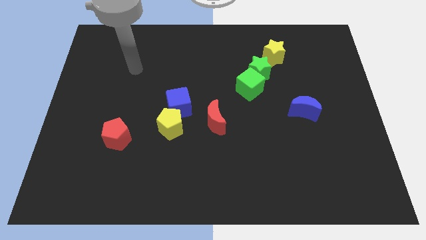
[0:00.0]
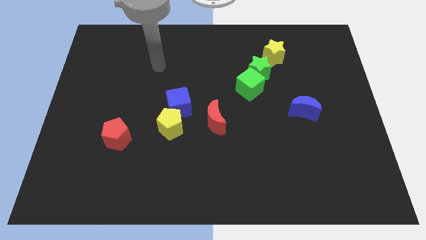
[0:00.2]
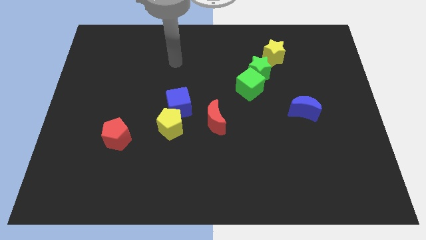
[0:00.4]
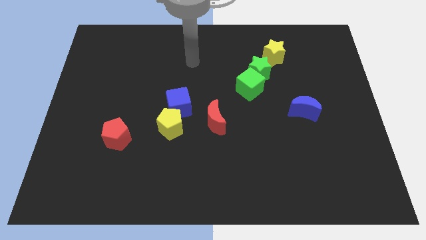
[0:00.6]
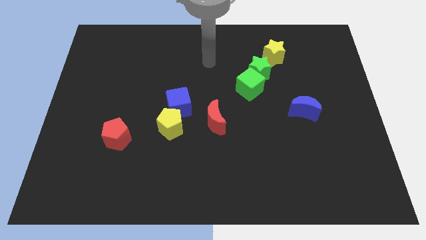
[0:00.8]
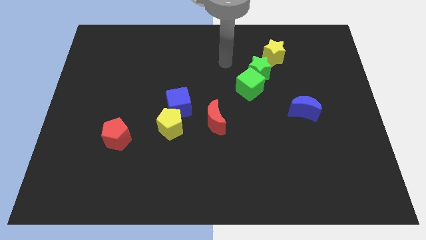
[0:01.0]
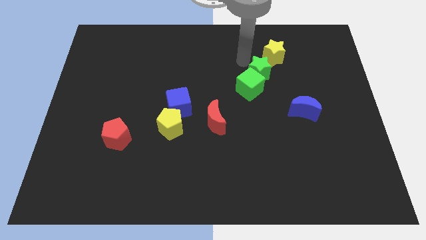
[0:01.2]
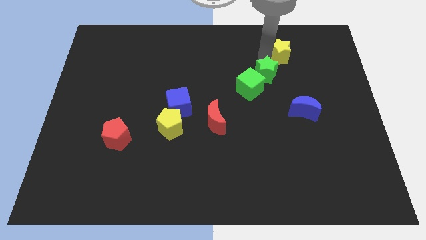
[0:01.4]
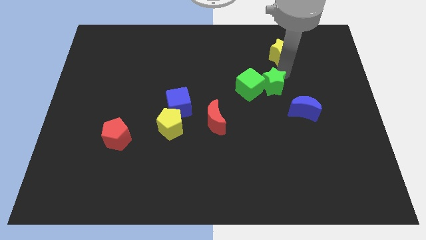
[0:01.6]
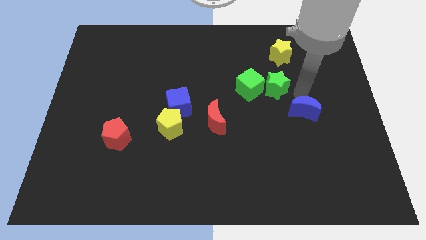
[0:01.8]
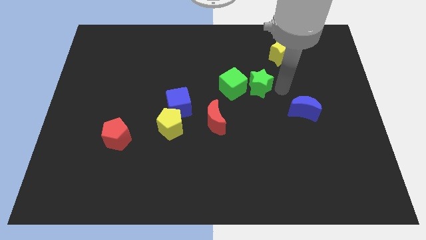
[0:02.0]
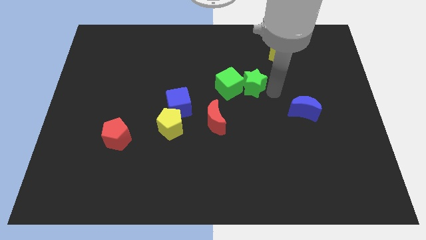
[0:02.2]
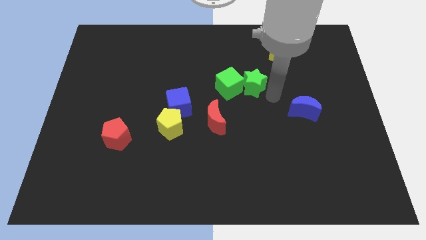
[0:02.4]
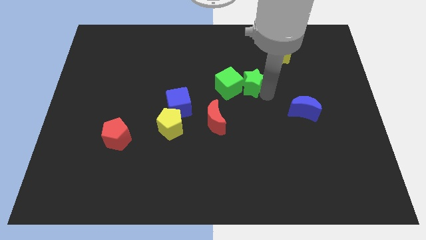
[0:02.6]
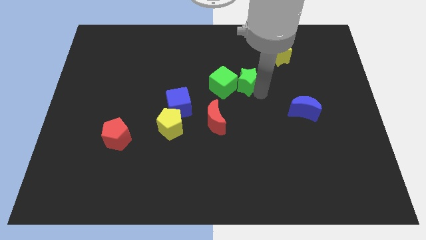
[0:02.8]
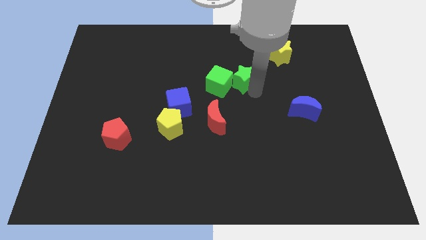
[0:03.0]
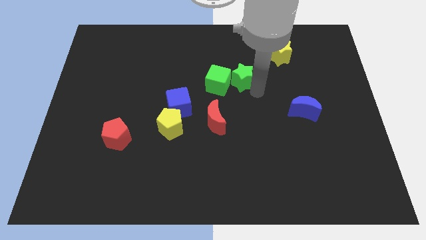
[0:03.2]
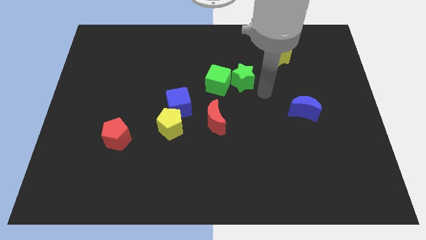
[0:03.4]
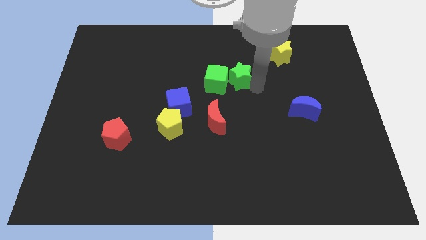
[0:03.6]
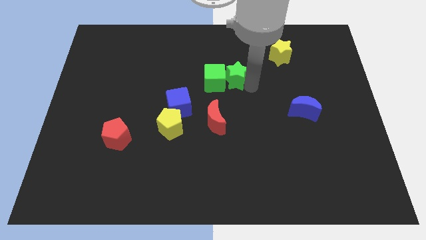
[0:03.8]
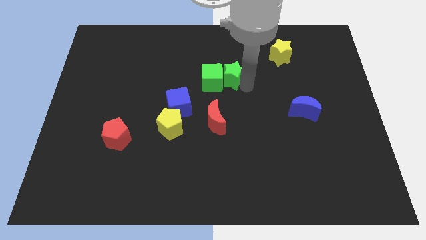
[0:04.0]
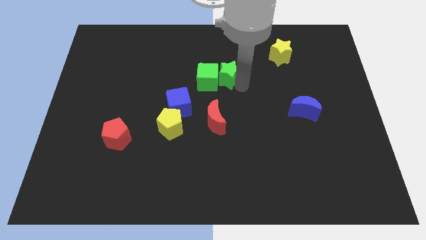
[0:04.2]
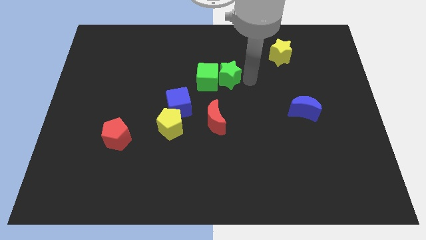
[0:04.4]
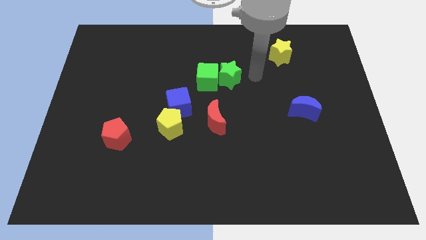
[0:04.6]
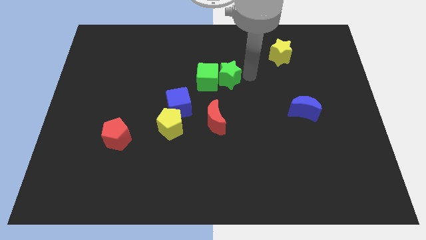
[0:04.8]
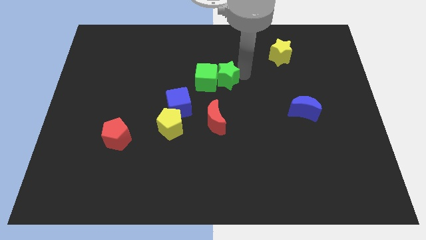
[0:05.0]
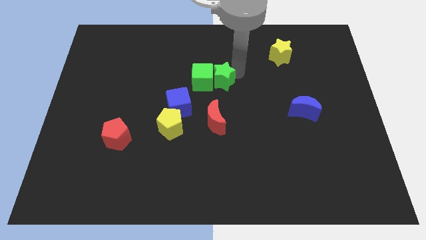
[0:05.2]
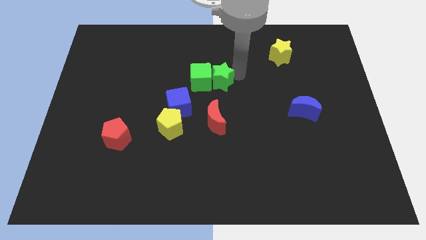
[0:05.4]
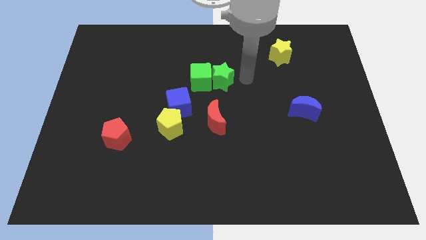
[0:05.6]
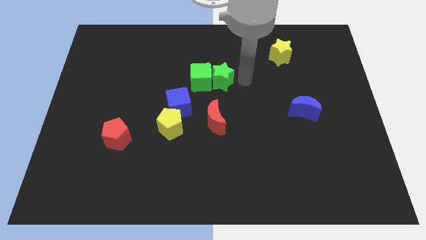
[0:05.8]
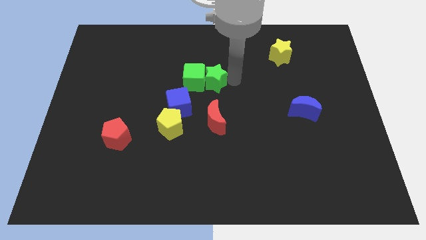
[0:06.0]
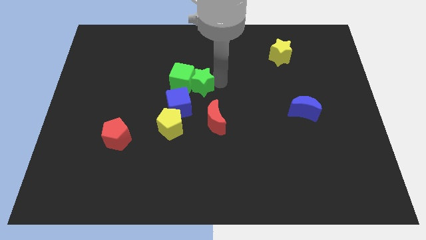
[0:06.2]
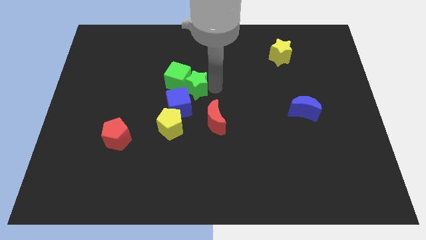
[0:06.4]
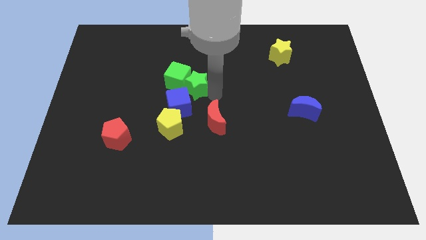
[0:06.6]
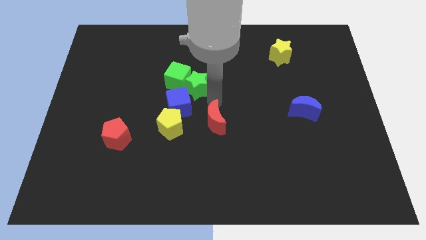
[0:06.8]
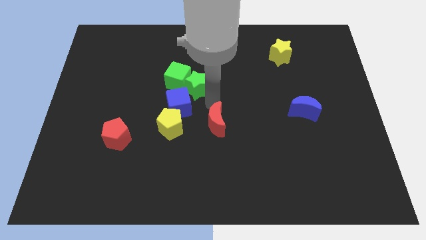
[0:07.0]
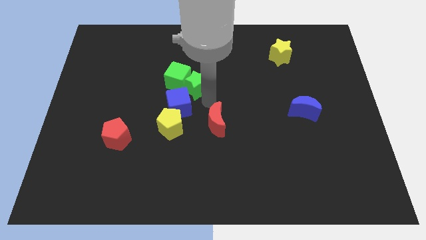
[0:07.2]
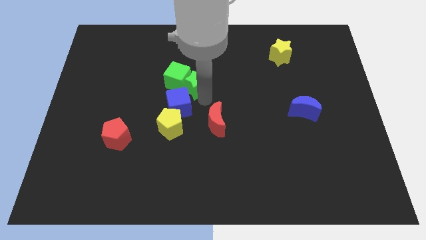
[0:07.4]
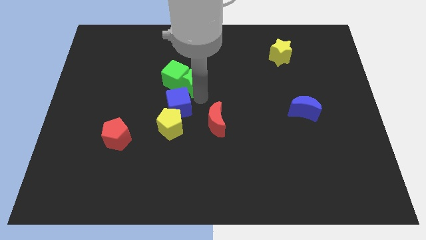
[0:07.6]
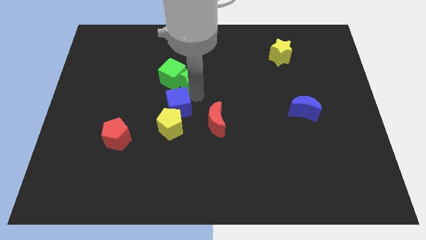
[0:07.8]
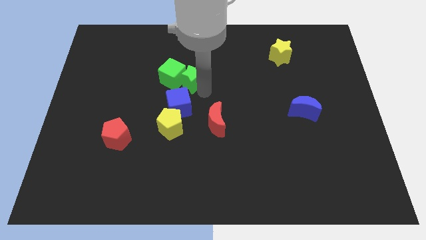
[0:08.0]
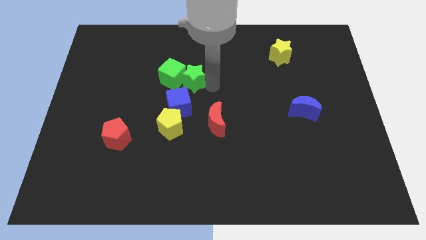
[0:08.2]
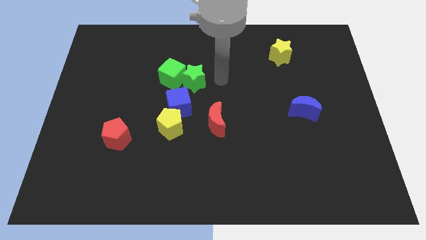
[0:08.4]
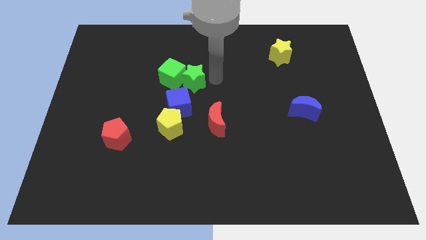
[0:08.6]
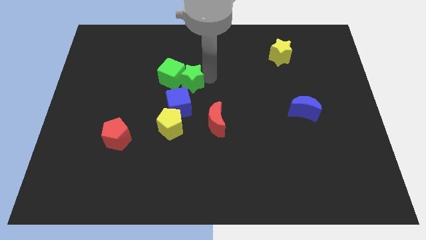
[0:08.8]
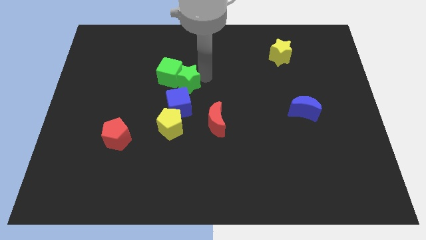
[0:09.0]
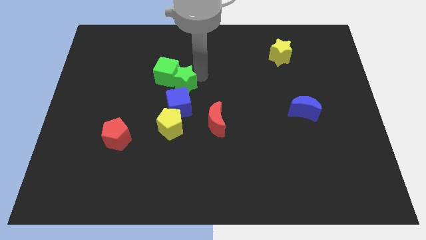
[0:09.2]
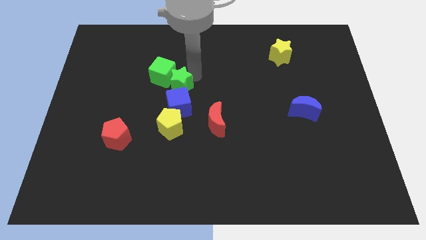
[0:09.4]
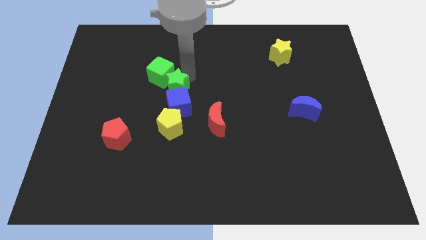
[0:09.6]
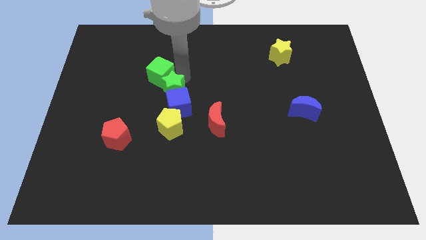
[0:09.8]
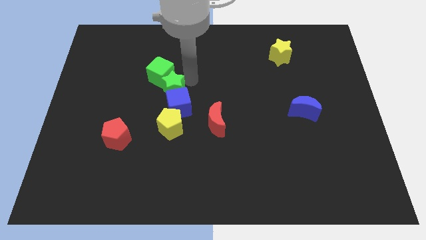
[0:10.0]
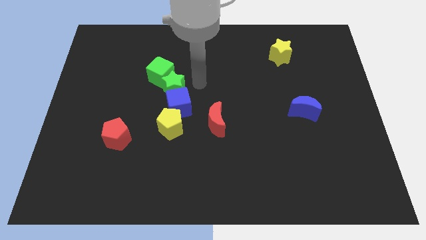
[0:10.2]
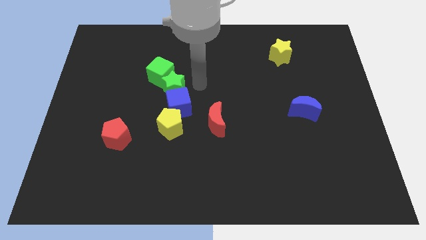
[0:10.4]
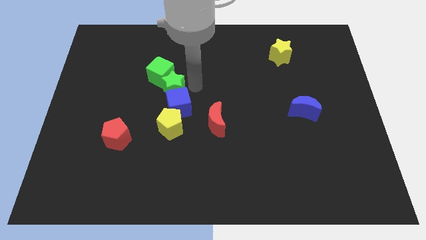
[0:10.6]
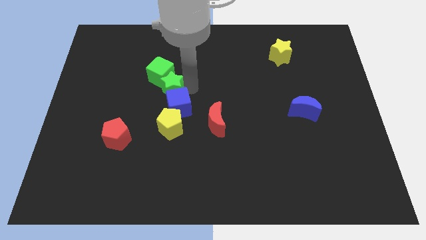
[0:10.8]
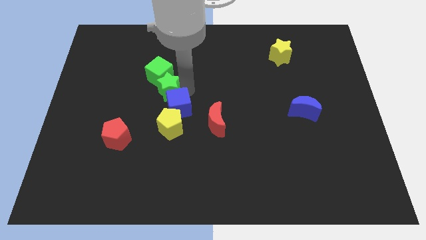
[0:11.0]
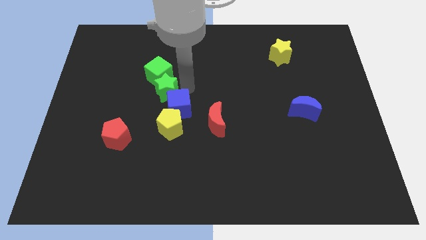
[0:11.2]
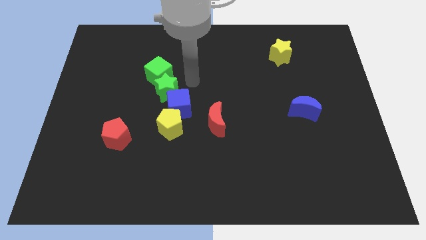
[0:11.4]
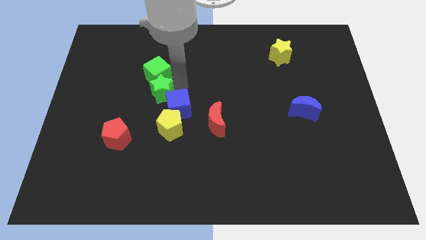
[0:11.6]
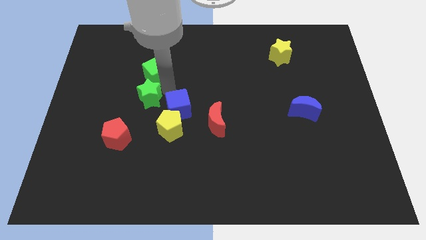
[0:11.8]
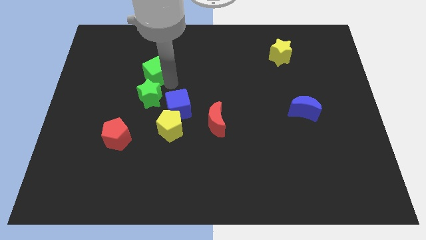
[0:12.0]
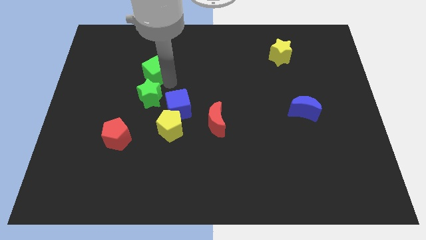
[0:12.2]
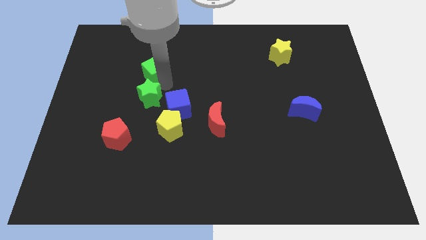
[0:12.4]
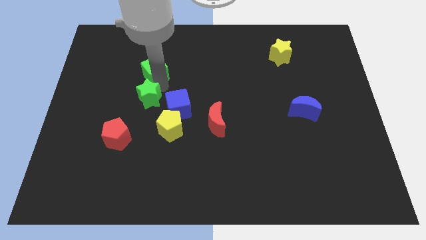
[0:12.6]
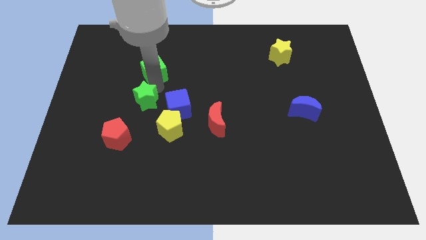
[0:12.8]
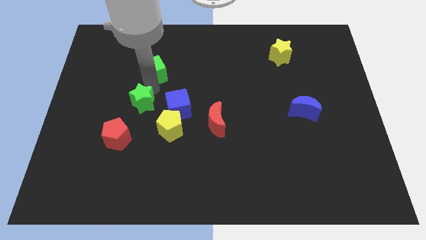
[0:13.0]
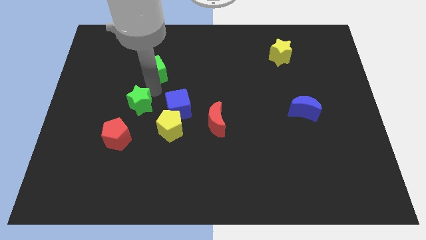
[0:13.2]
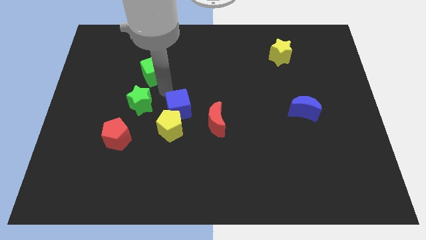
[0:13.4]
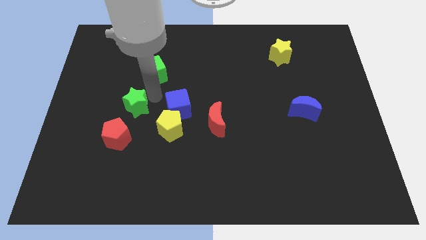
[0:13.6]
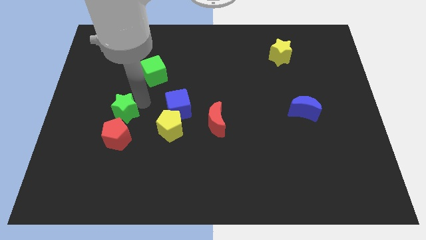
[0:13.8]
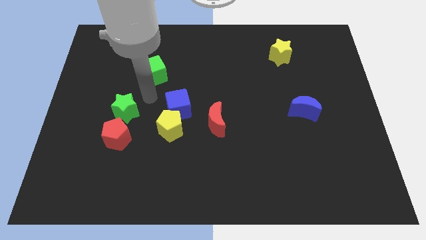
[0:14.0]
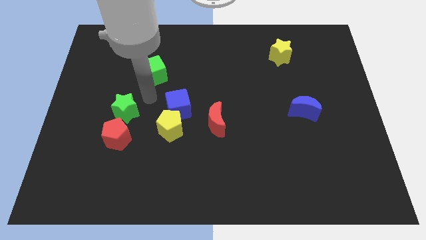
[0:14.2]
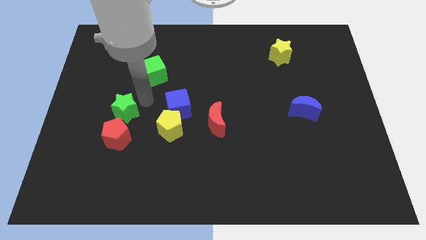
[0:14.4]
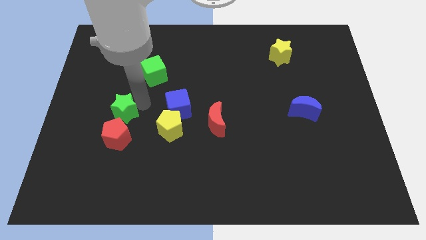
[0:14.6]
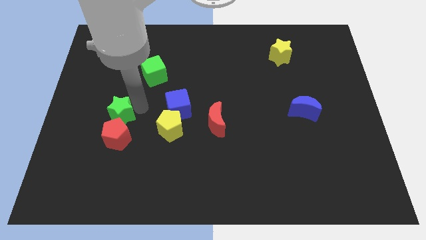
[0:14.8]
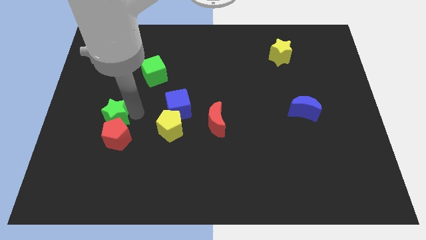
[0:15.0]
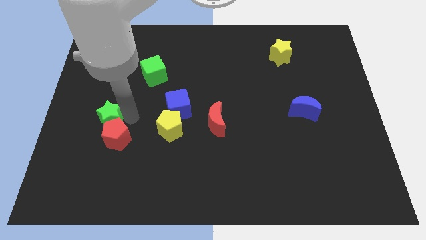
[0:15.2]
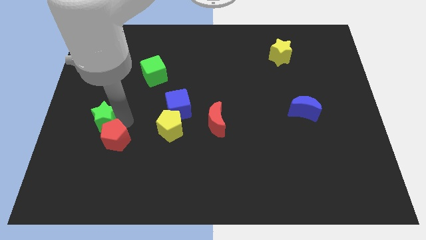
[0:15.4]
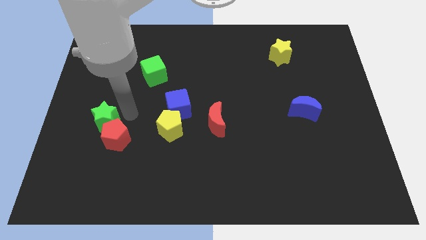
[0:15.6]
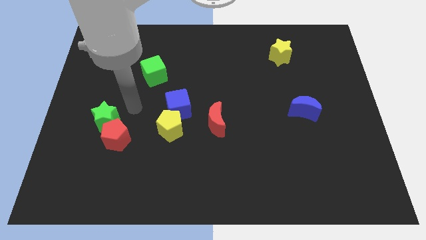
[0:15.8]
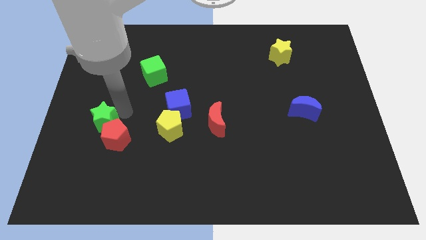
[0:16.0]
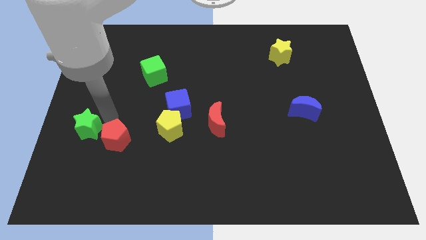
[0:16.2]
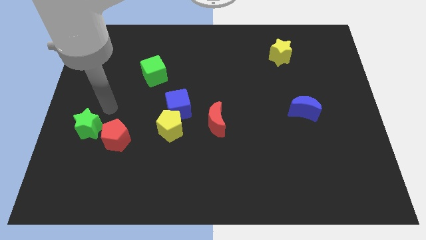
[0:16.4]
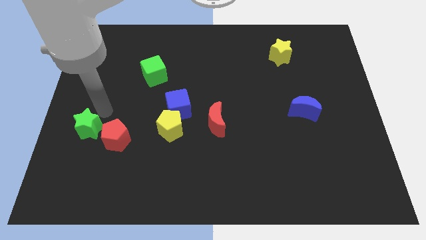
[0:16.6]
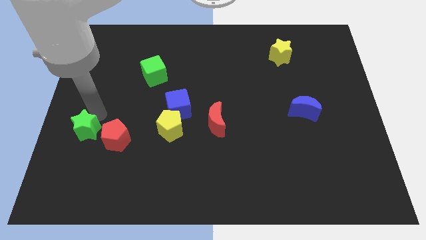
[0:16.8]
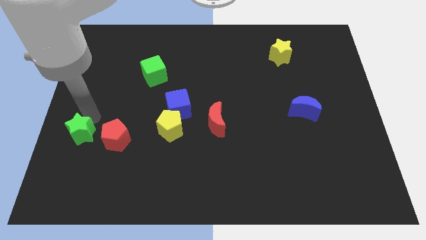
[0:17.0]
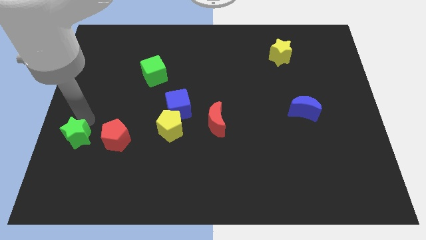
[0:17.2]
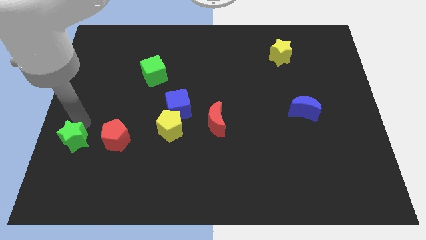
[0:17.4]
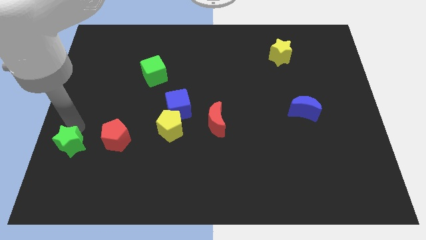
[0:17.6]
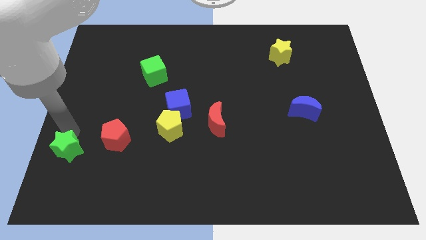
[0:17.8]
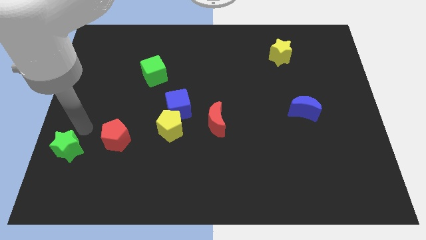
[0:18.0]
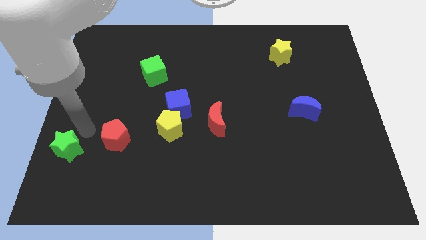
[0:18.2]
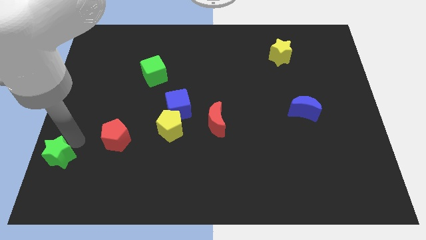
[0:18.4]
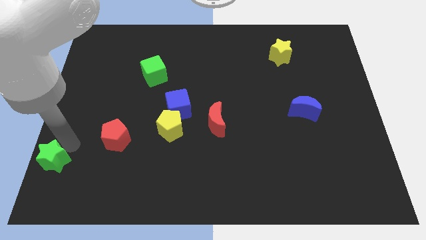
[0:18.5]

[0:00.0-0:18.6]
move the green star to the bottom left corner
